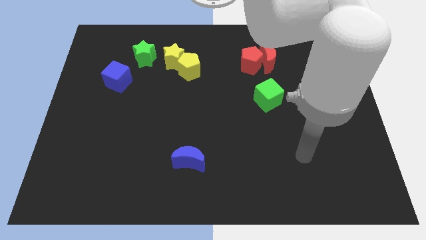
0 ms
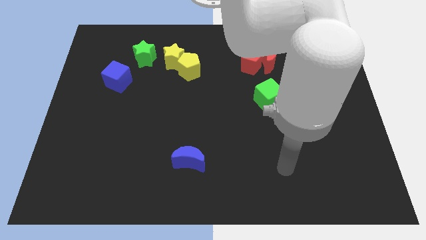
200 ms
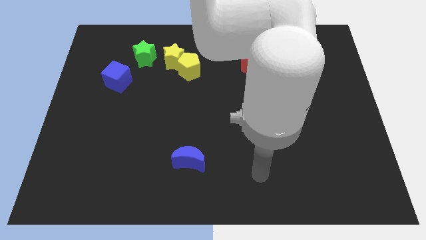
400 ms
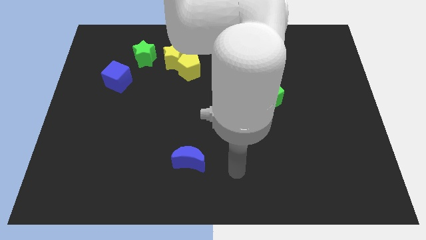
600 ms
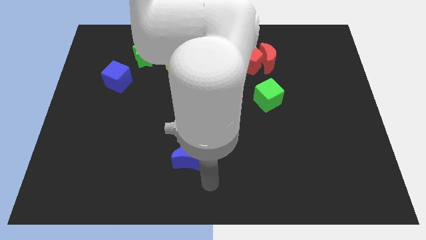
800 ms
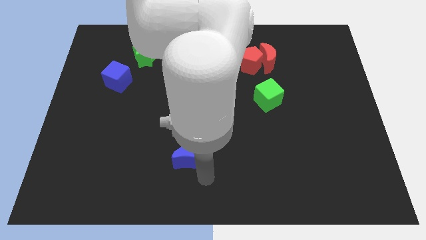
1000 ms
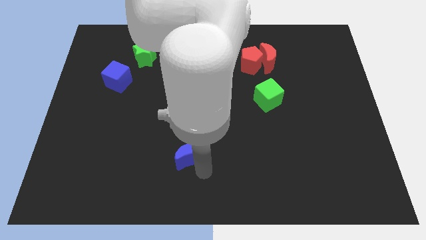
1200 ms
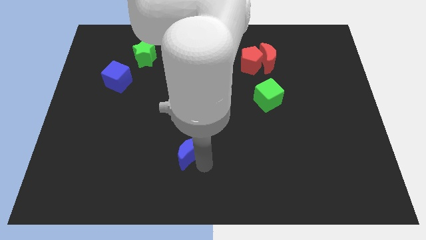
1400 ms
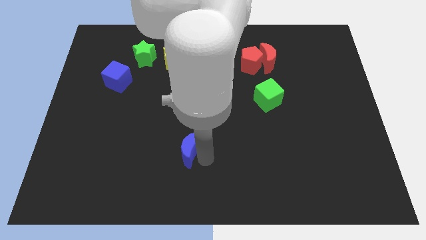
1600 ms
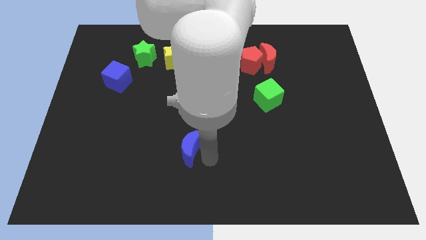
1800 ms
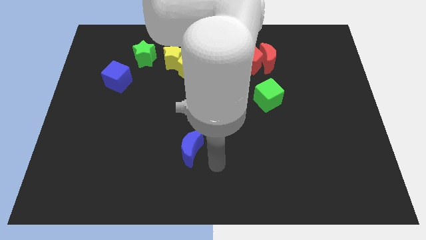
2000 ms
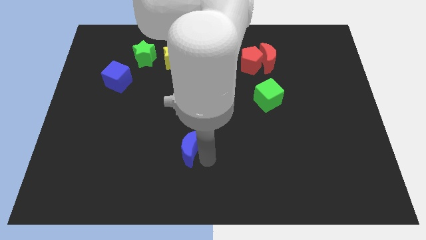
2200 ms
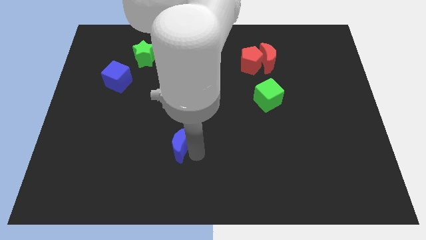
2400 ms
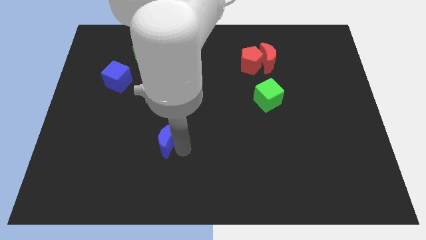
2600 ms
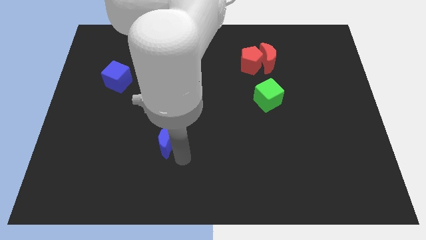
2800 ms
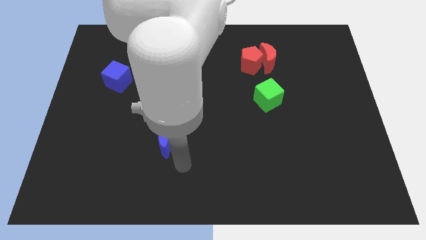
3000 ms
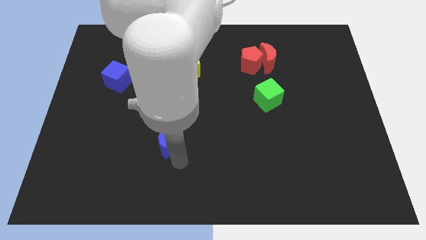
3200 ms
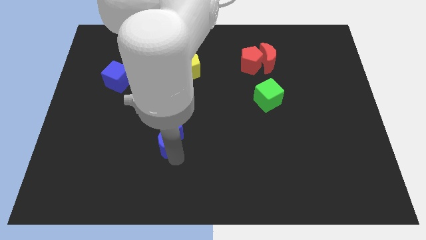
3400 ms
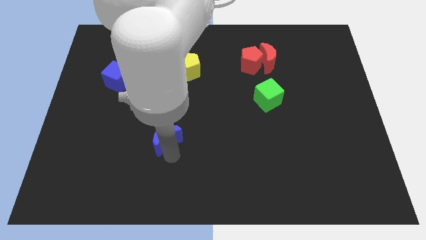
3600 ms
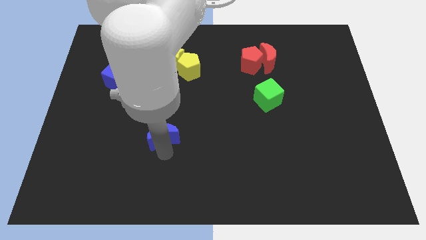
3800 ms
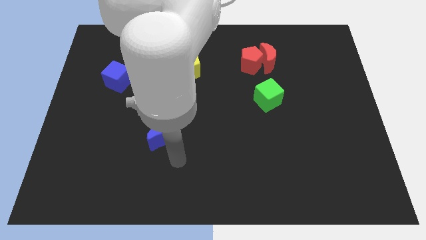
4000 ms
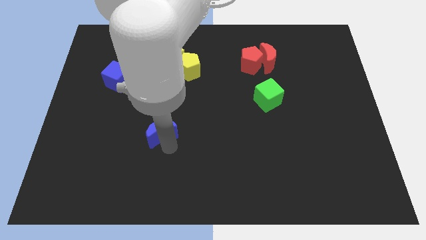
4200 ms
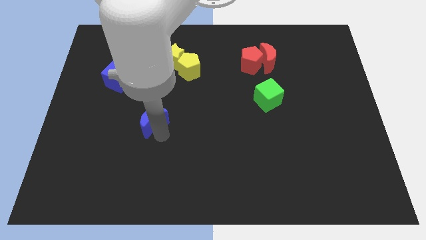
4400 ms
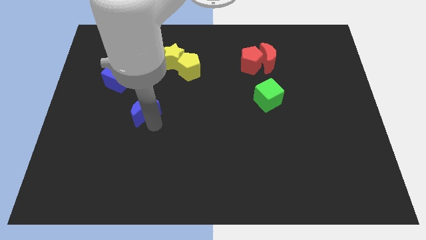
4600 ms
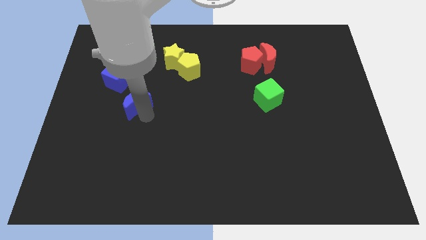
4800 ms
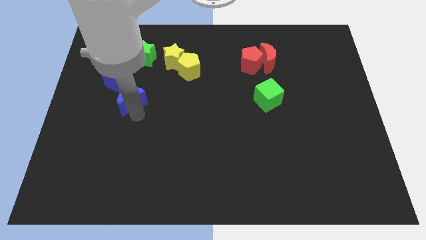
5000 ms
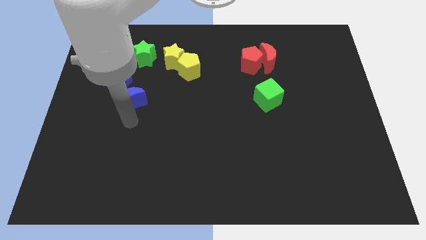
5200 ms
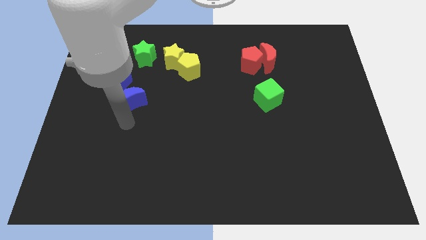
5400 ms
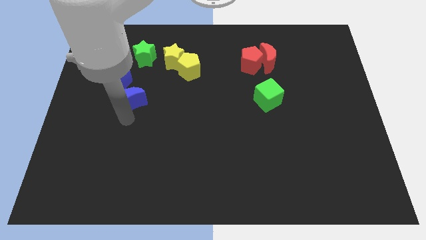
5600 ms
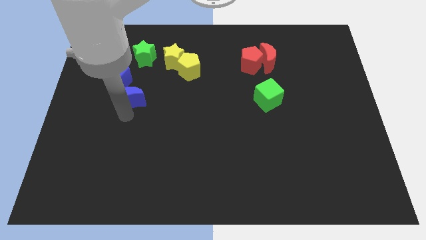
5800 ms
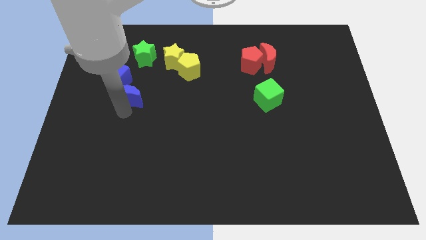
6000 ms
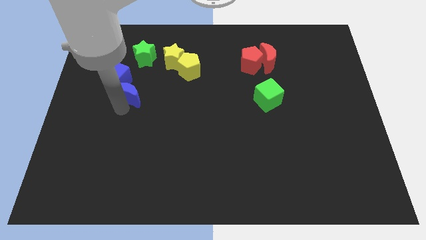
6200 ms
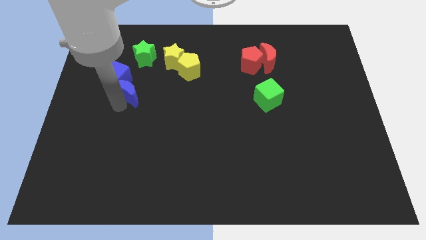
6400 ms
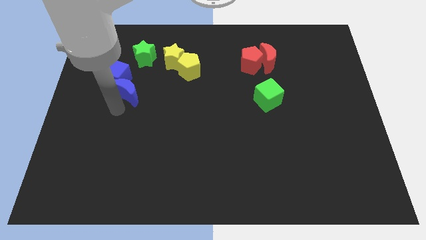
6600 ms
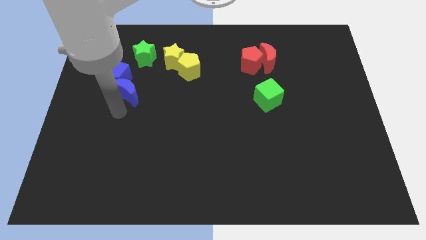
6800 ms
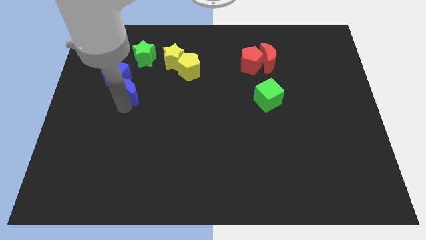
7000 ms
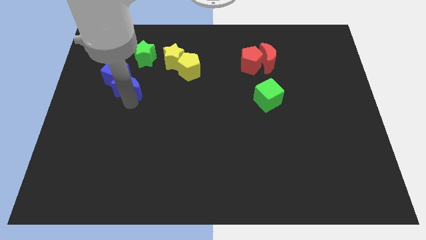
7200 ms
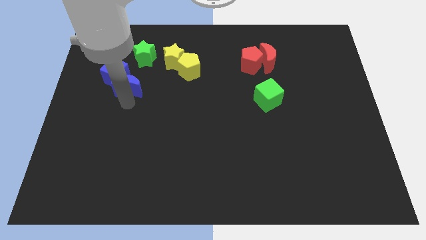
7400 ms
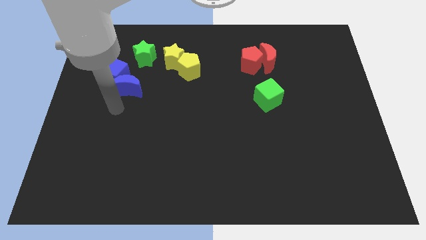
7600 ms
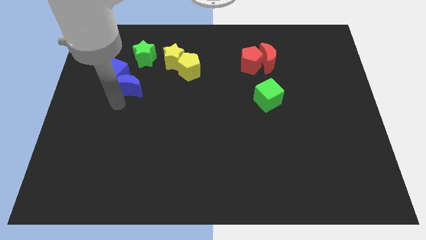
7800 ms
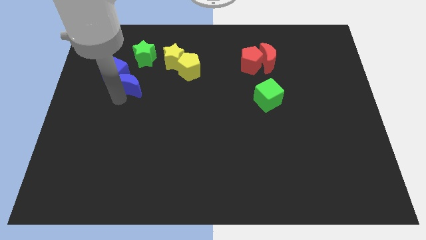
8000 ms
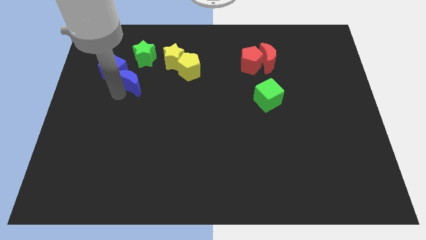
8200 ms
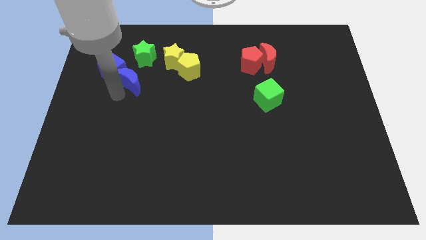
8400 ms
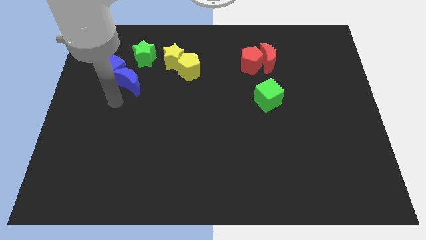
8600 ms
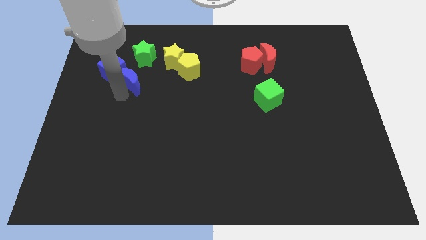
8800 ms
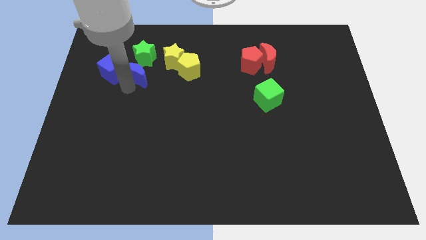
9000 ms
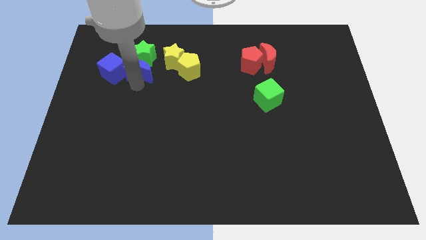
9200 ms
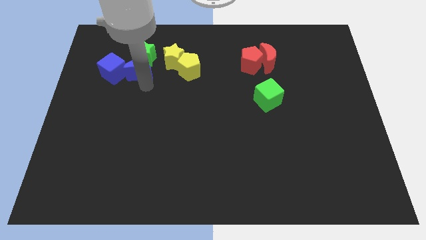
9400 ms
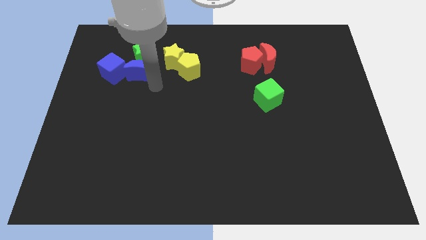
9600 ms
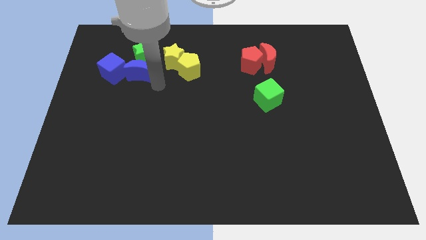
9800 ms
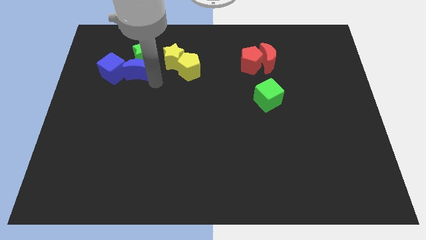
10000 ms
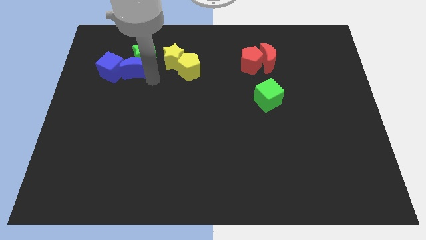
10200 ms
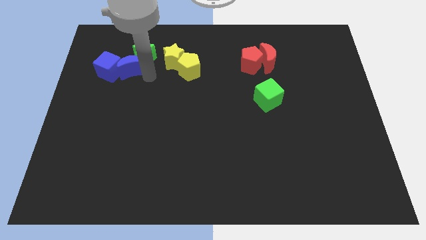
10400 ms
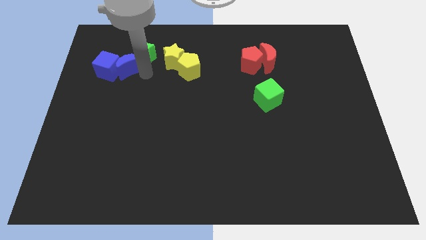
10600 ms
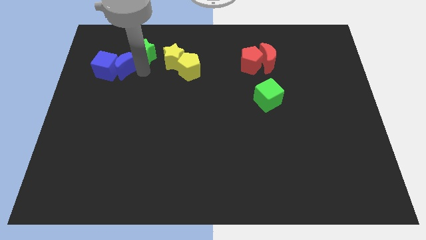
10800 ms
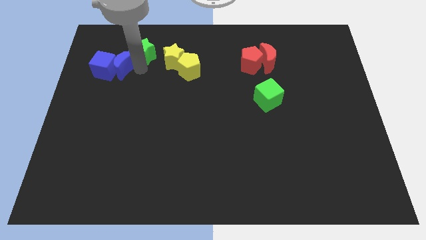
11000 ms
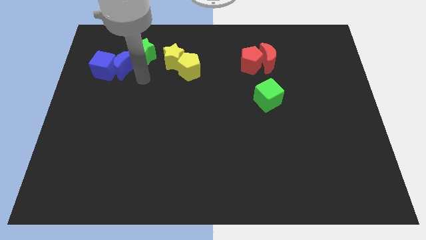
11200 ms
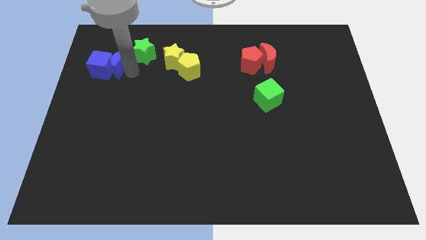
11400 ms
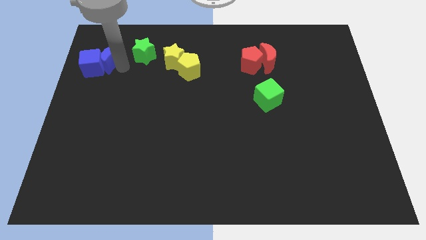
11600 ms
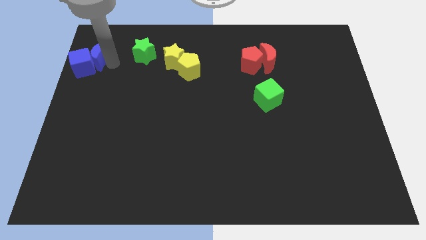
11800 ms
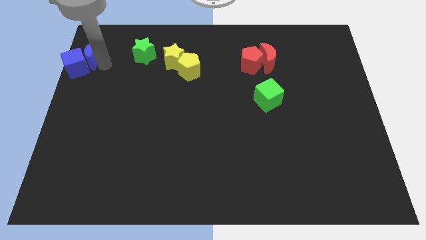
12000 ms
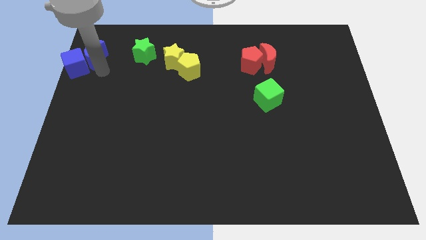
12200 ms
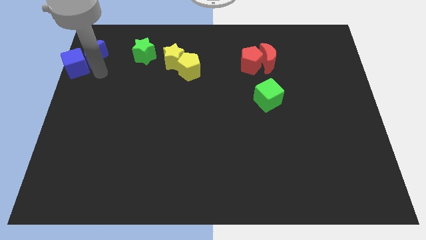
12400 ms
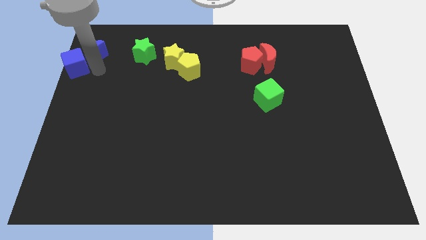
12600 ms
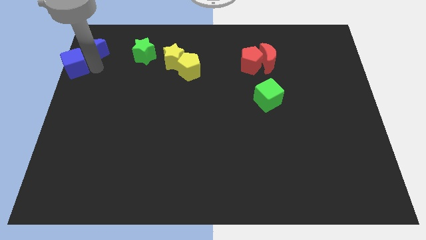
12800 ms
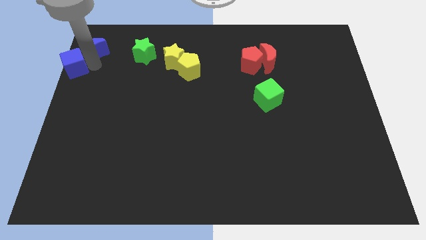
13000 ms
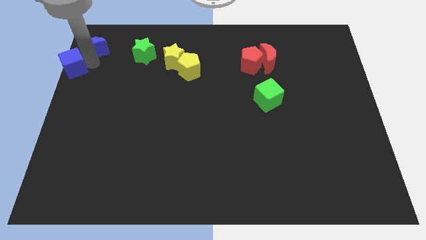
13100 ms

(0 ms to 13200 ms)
slide the blue moon to the upper left corner
